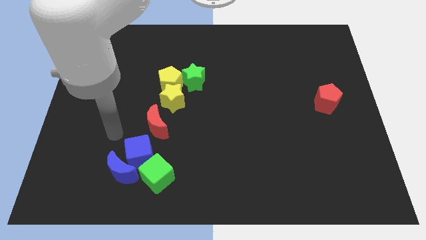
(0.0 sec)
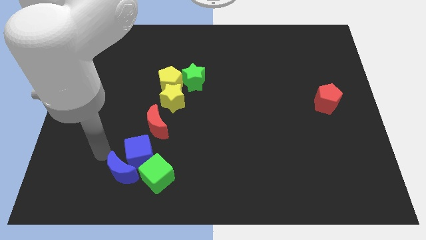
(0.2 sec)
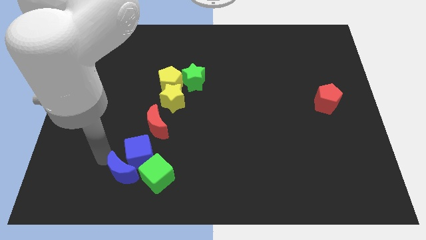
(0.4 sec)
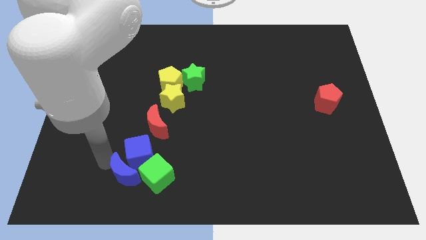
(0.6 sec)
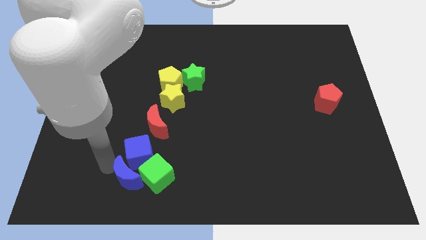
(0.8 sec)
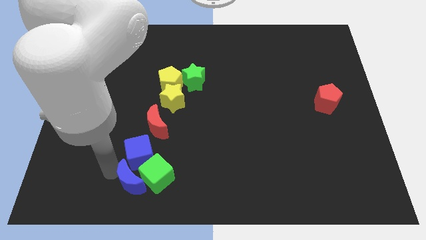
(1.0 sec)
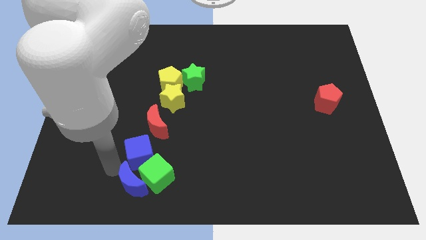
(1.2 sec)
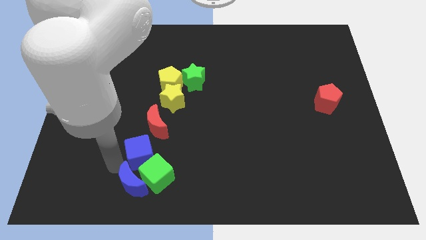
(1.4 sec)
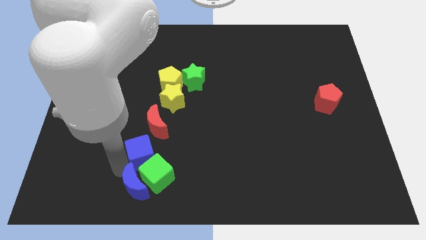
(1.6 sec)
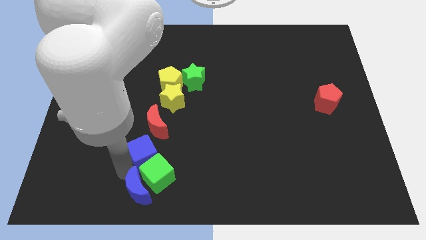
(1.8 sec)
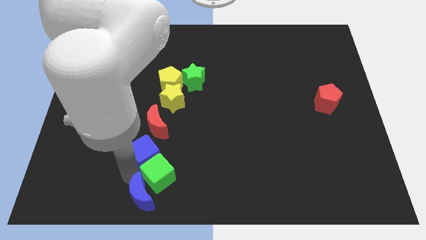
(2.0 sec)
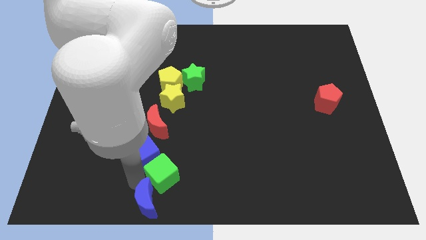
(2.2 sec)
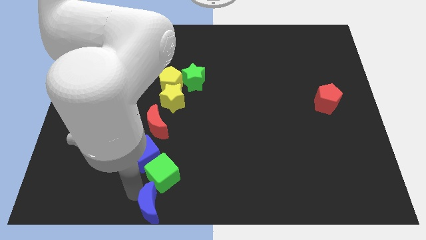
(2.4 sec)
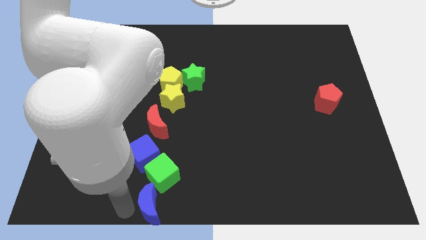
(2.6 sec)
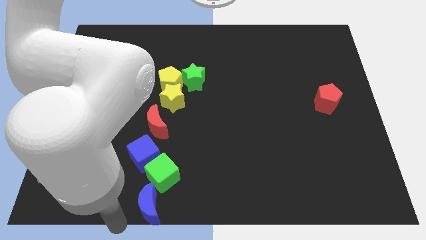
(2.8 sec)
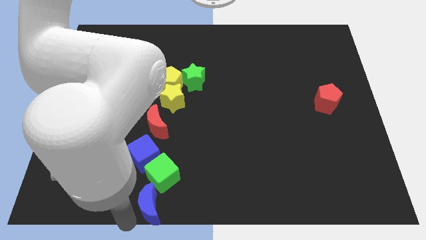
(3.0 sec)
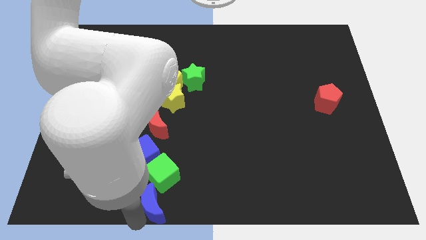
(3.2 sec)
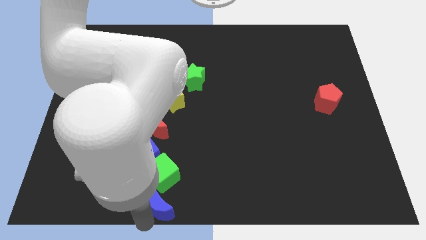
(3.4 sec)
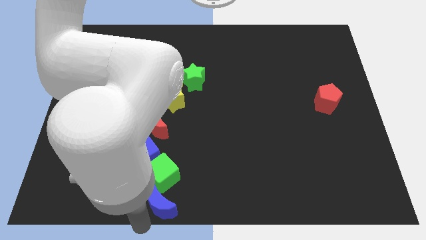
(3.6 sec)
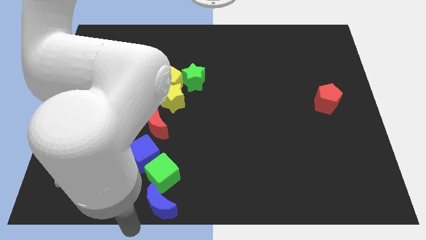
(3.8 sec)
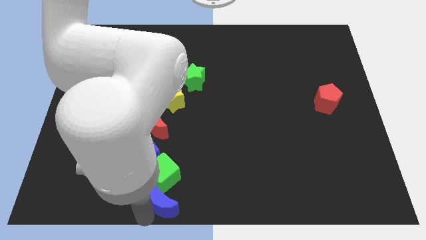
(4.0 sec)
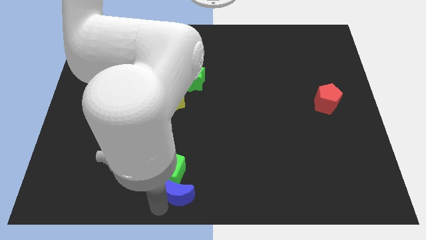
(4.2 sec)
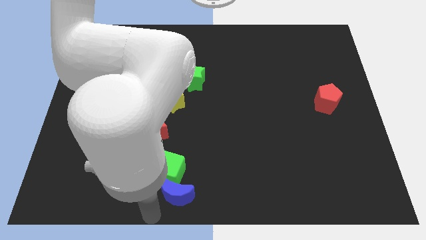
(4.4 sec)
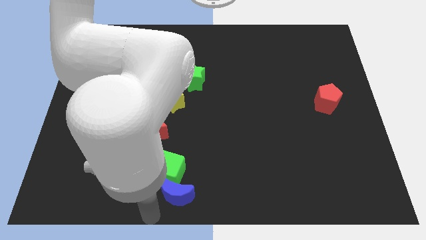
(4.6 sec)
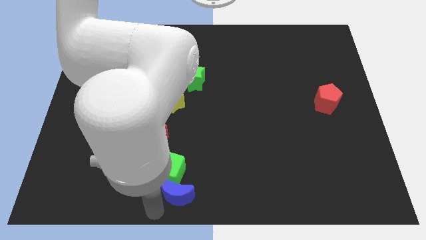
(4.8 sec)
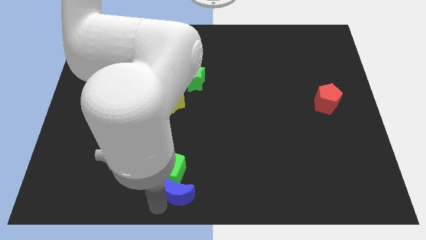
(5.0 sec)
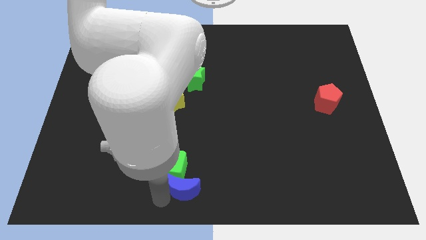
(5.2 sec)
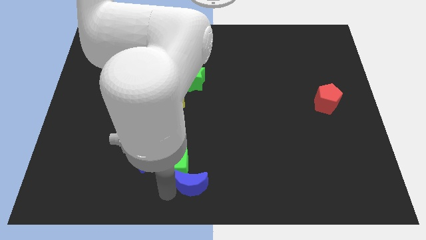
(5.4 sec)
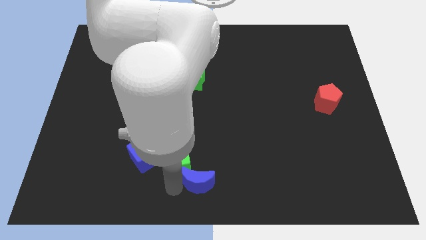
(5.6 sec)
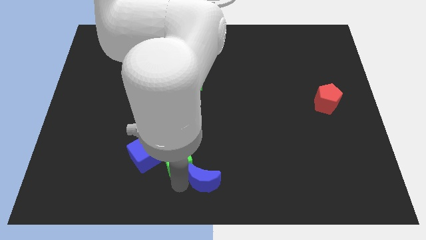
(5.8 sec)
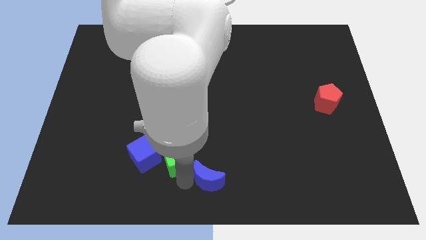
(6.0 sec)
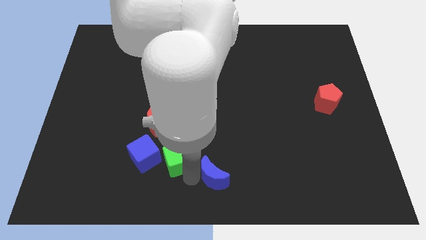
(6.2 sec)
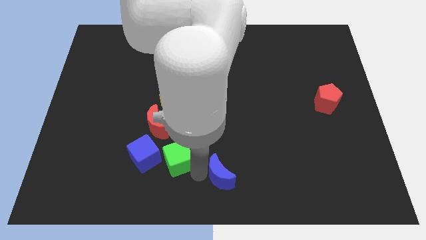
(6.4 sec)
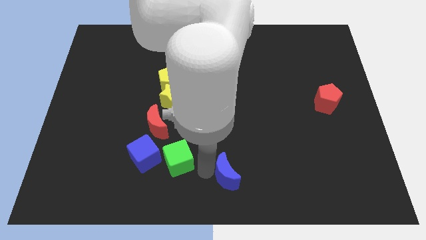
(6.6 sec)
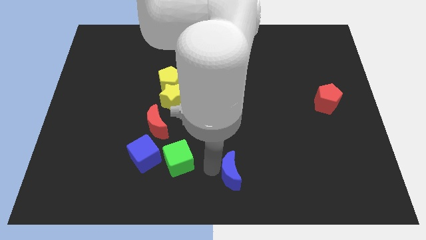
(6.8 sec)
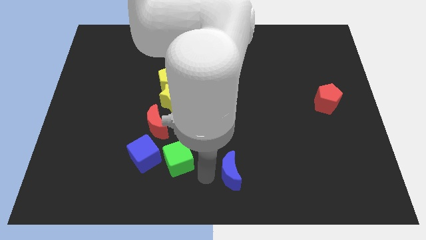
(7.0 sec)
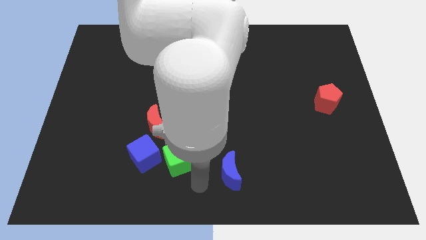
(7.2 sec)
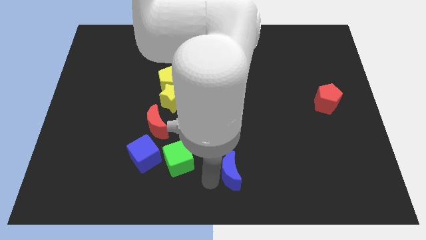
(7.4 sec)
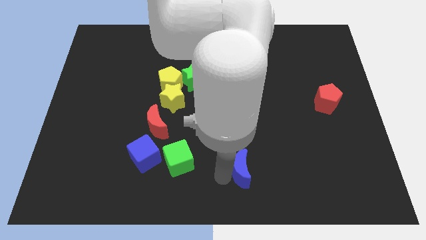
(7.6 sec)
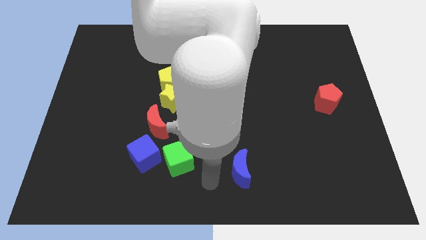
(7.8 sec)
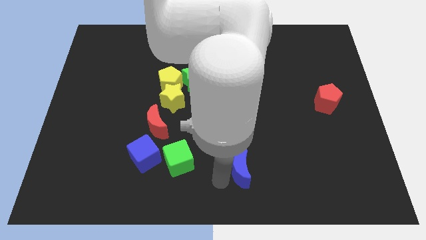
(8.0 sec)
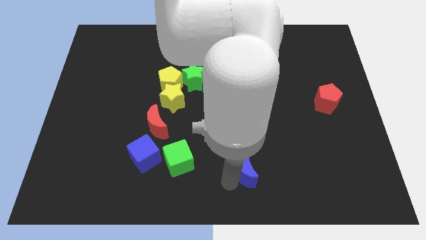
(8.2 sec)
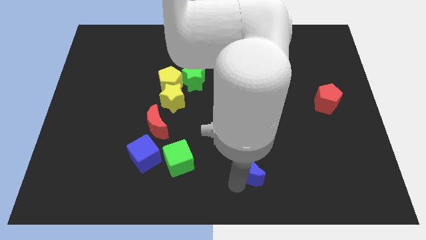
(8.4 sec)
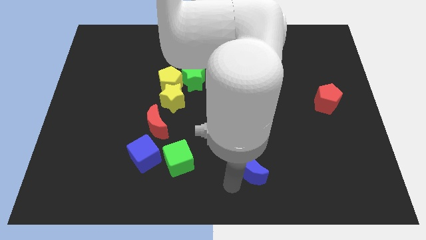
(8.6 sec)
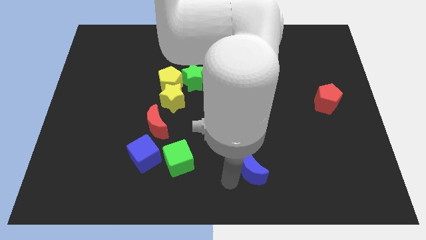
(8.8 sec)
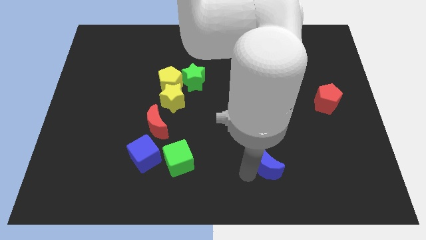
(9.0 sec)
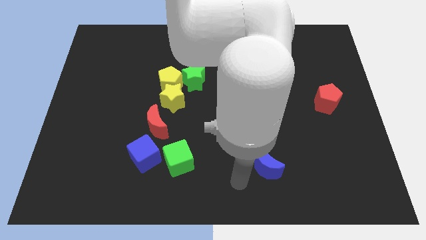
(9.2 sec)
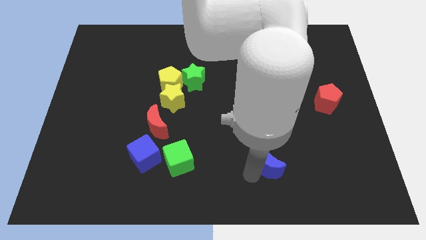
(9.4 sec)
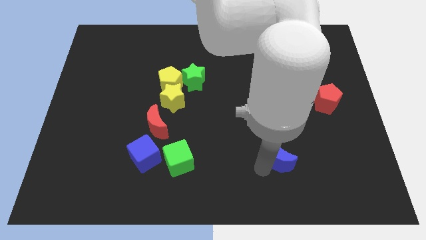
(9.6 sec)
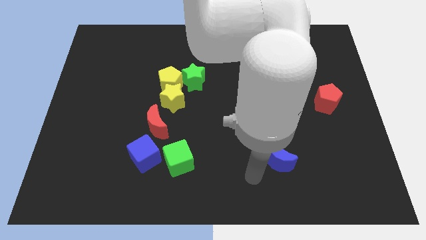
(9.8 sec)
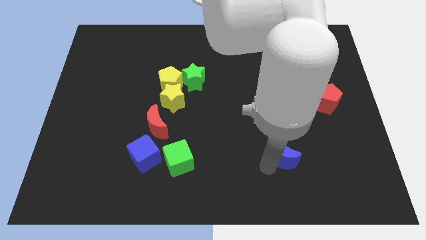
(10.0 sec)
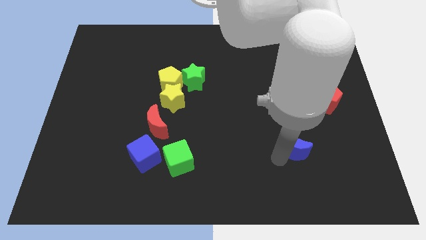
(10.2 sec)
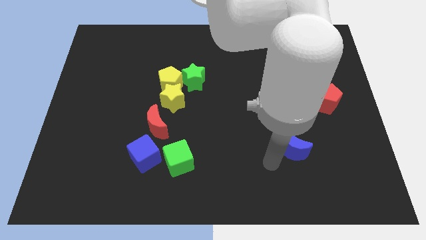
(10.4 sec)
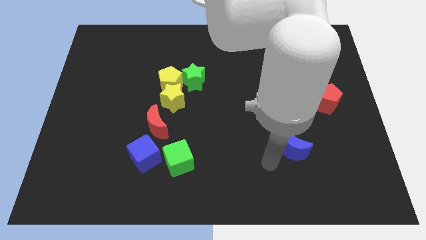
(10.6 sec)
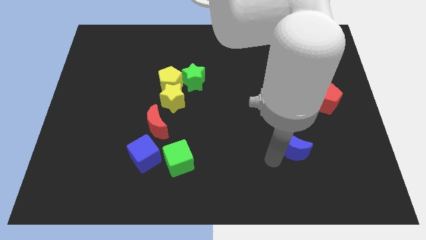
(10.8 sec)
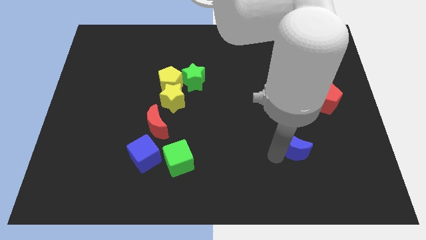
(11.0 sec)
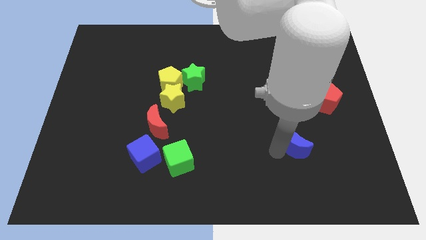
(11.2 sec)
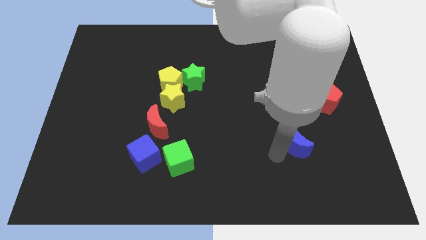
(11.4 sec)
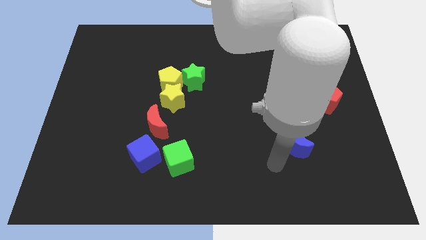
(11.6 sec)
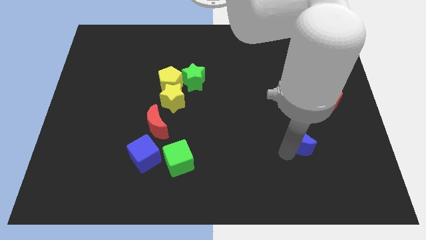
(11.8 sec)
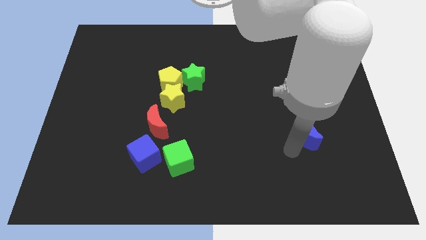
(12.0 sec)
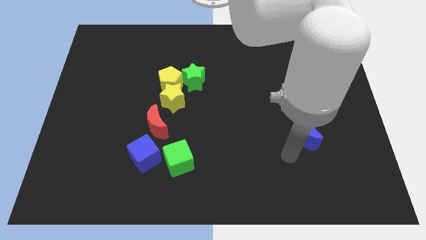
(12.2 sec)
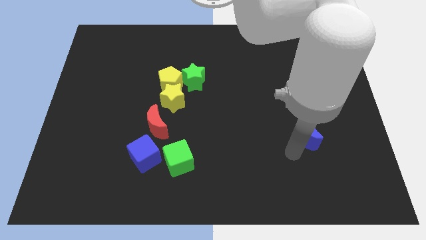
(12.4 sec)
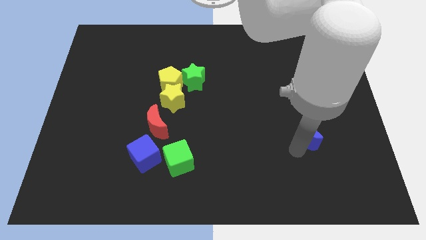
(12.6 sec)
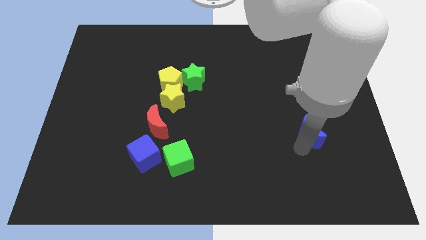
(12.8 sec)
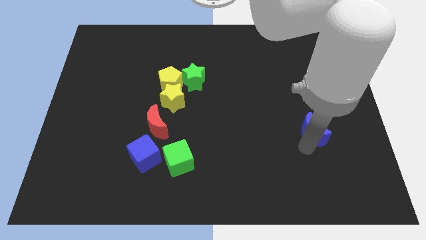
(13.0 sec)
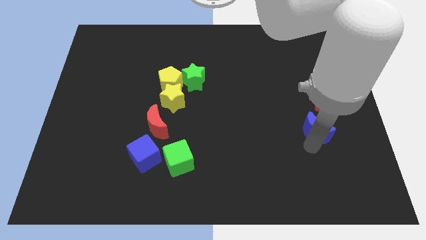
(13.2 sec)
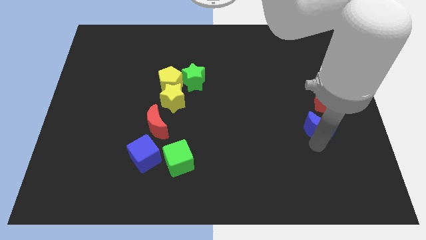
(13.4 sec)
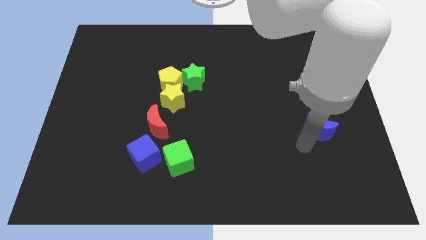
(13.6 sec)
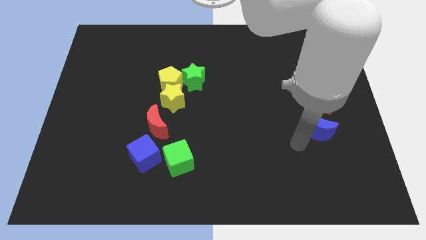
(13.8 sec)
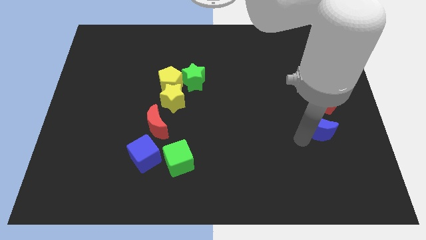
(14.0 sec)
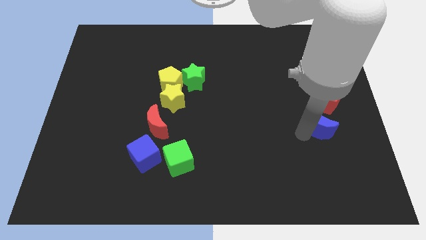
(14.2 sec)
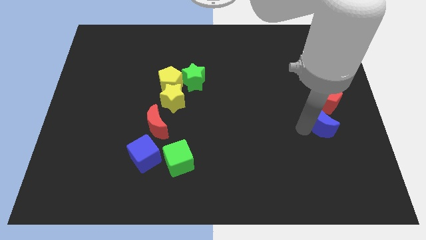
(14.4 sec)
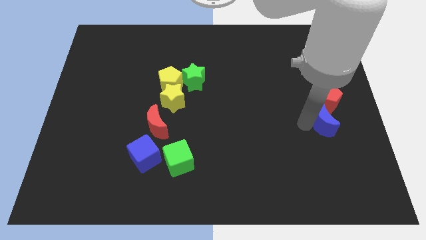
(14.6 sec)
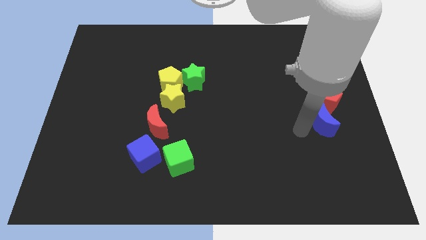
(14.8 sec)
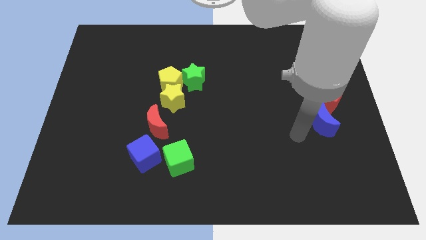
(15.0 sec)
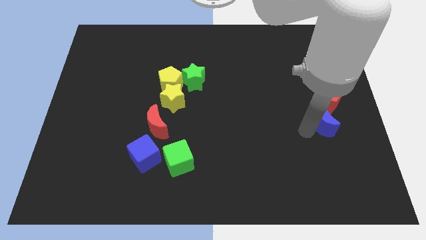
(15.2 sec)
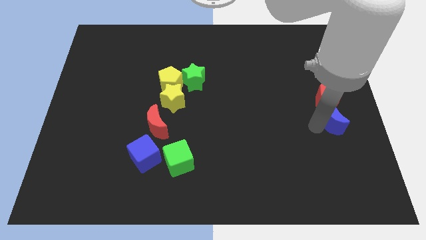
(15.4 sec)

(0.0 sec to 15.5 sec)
slide the blue moon to the right side
